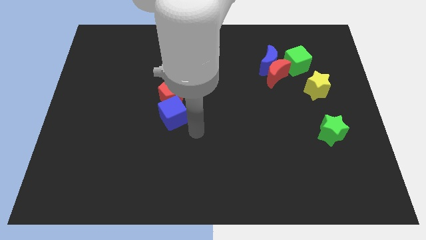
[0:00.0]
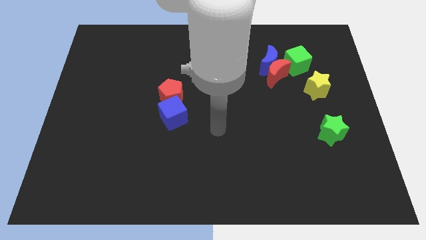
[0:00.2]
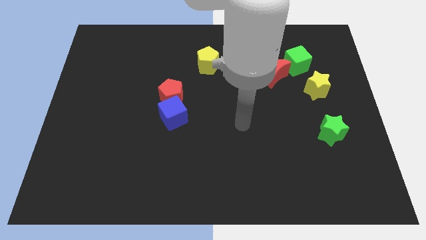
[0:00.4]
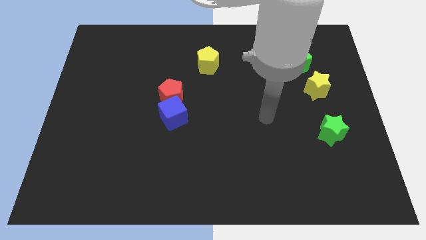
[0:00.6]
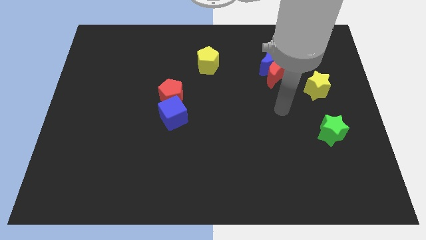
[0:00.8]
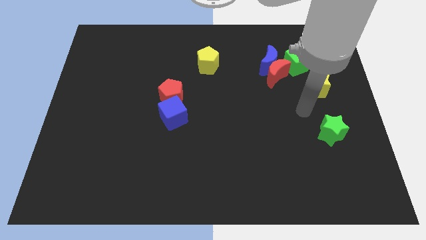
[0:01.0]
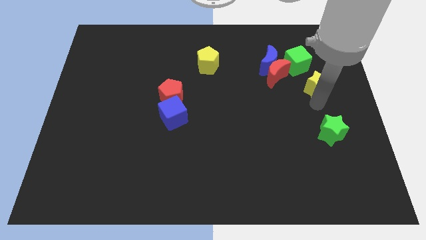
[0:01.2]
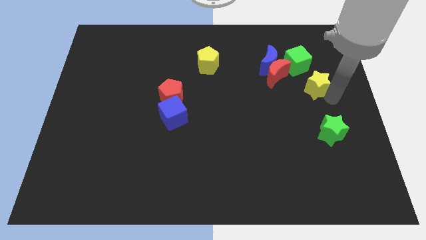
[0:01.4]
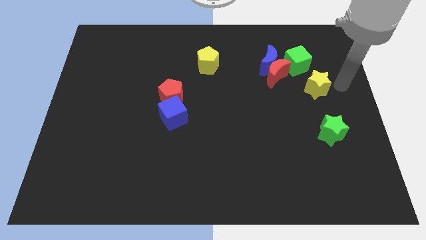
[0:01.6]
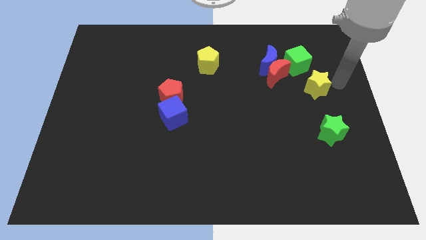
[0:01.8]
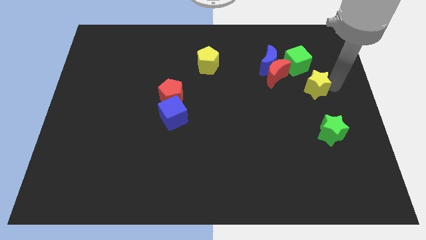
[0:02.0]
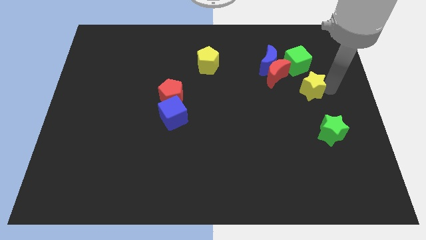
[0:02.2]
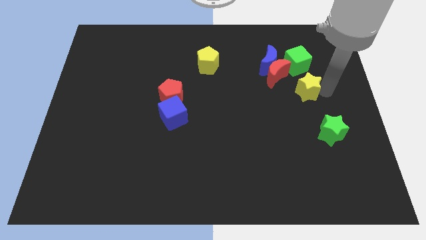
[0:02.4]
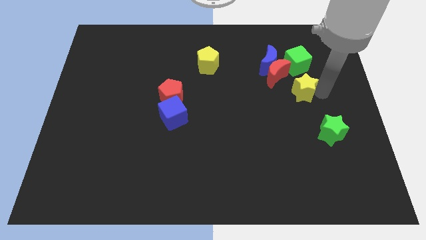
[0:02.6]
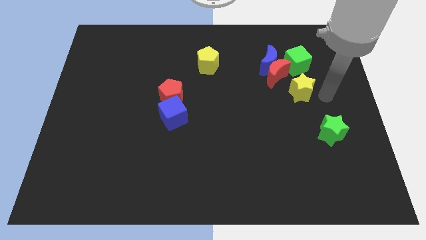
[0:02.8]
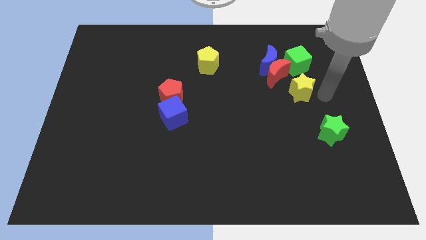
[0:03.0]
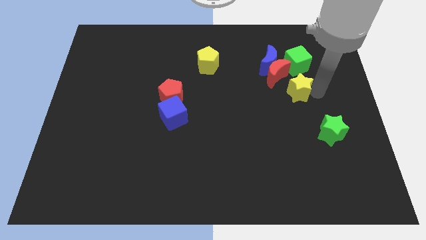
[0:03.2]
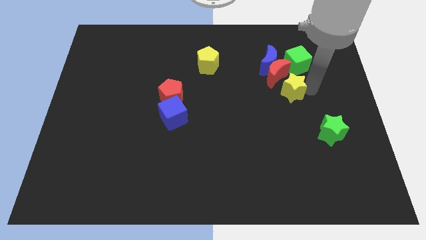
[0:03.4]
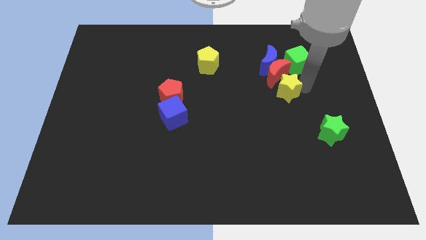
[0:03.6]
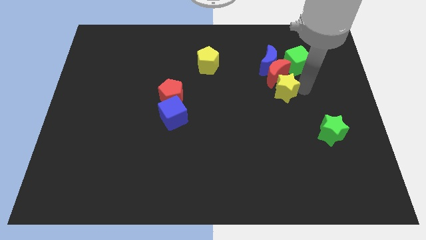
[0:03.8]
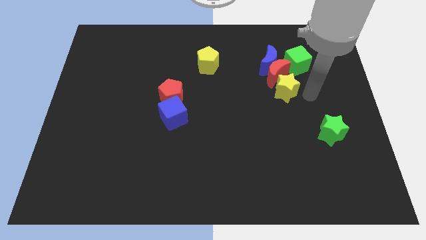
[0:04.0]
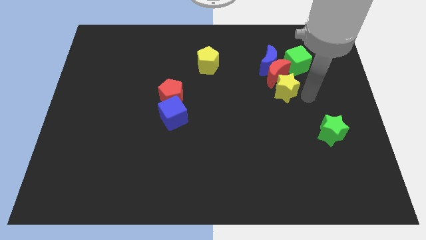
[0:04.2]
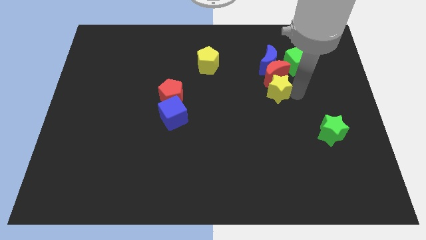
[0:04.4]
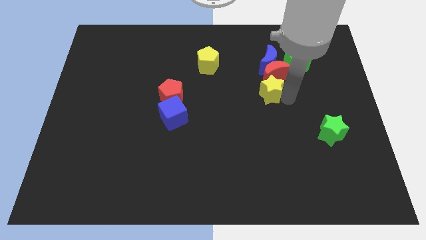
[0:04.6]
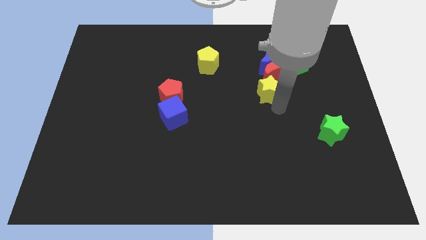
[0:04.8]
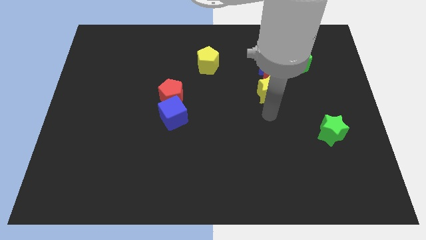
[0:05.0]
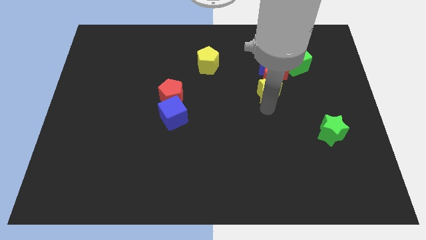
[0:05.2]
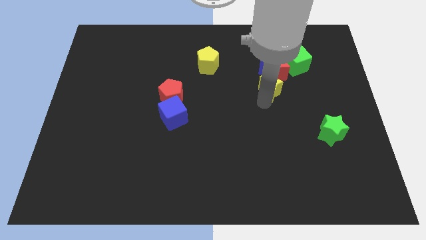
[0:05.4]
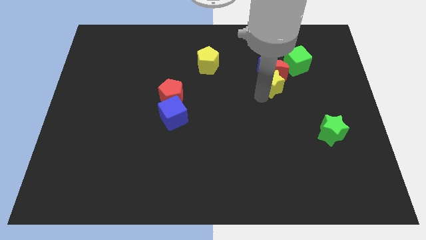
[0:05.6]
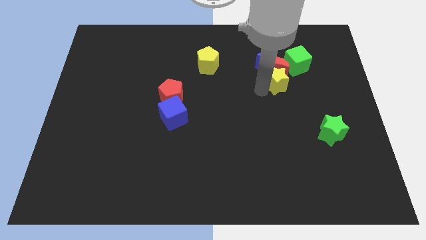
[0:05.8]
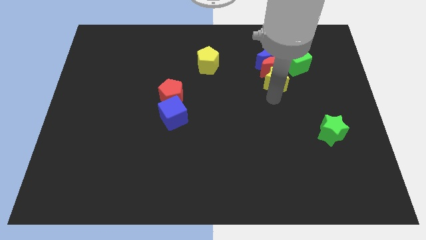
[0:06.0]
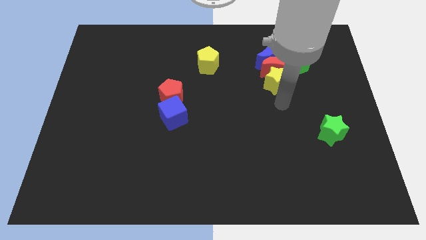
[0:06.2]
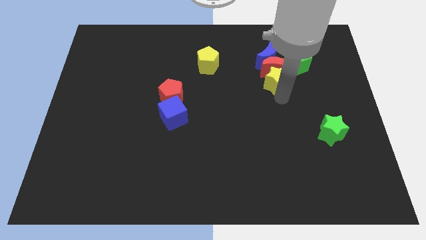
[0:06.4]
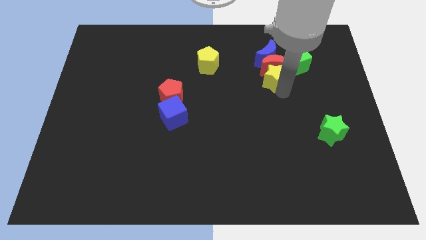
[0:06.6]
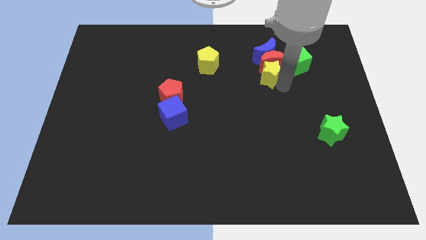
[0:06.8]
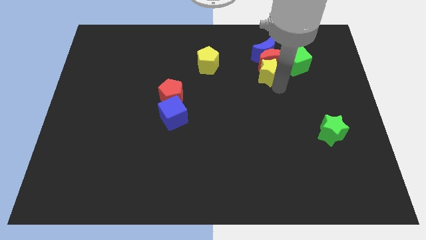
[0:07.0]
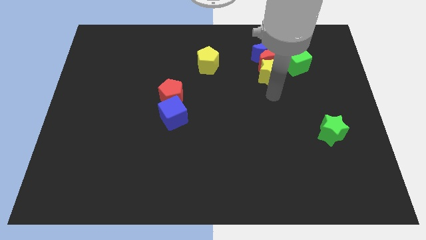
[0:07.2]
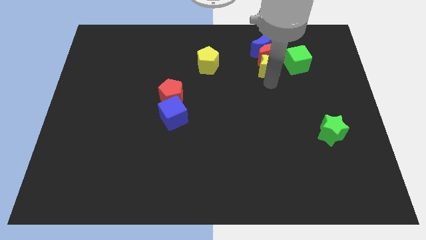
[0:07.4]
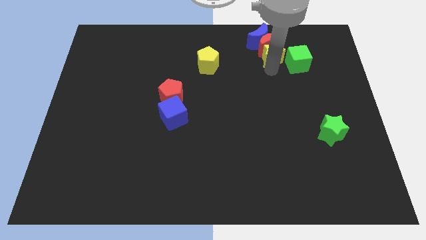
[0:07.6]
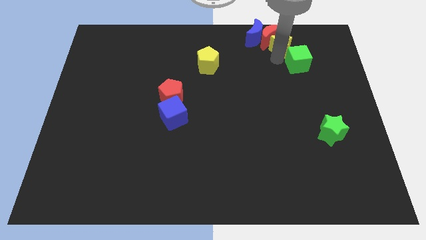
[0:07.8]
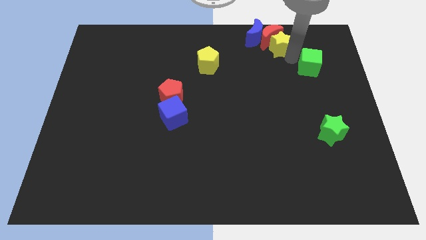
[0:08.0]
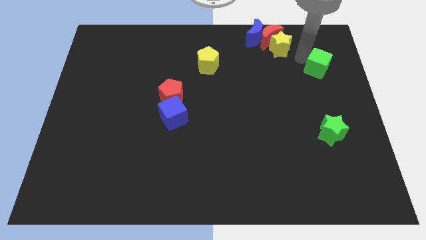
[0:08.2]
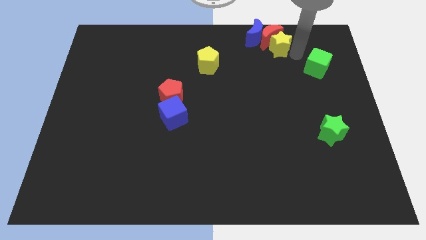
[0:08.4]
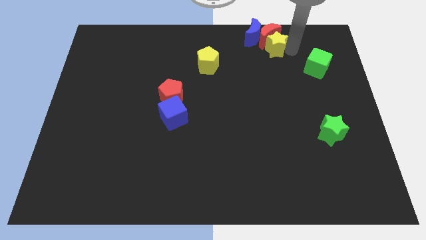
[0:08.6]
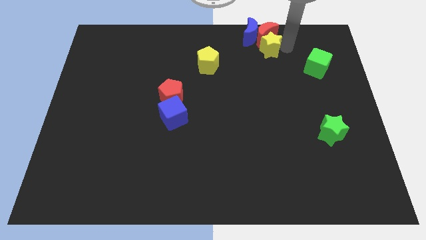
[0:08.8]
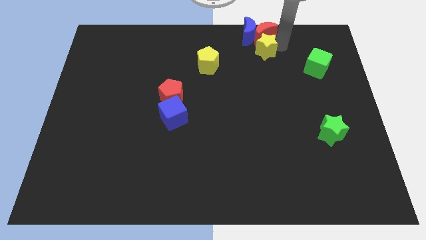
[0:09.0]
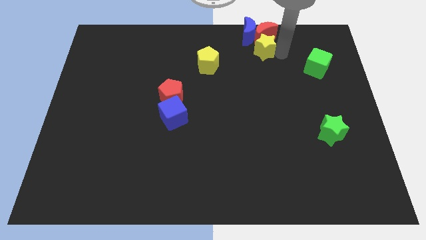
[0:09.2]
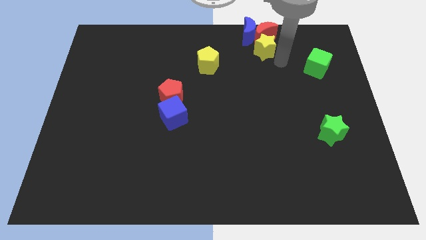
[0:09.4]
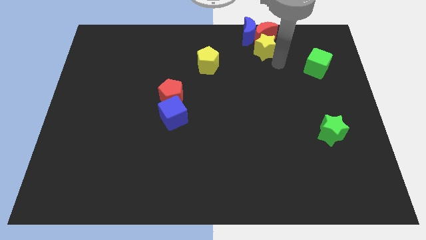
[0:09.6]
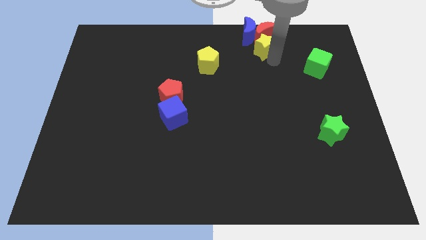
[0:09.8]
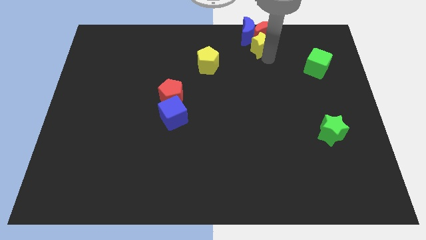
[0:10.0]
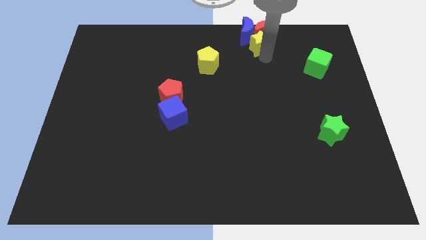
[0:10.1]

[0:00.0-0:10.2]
slide the yellow star next to the blue moon

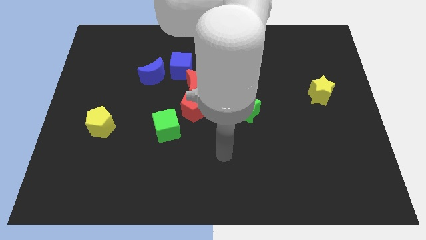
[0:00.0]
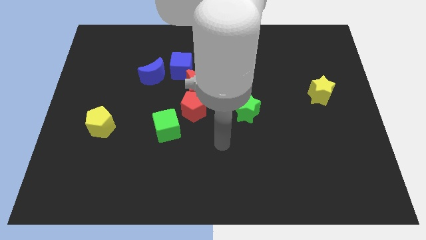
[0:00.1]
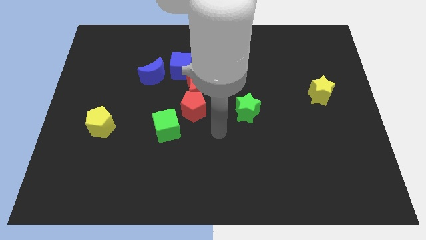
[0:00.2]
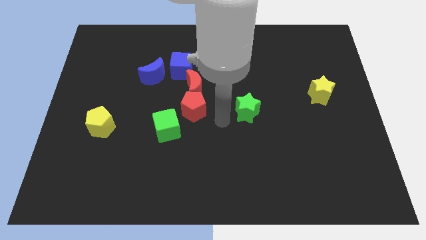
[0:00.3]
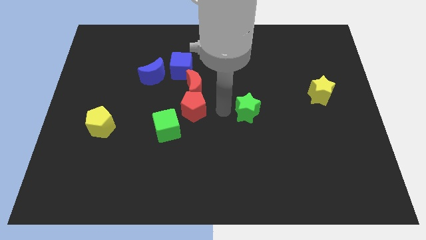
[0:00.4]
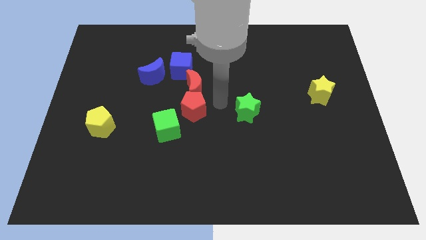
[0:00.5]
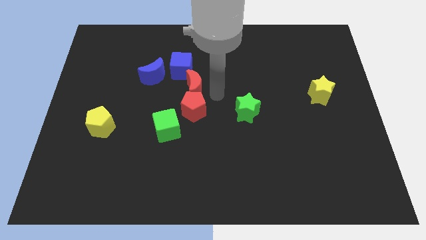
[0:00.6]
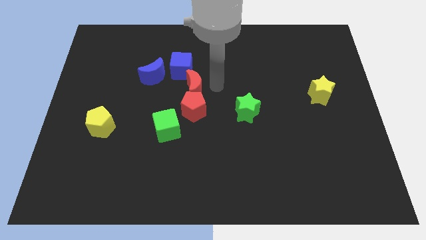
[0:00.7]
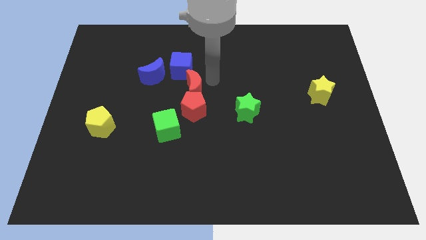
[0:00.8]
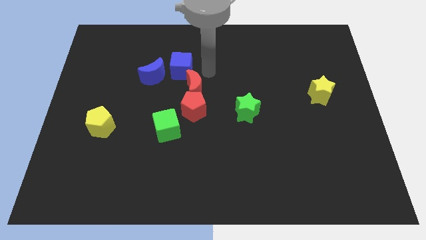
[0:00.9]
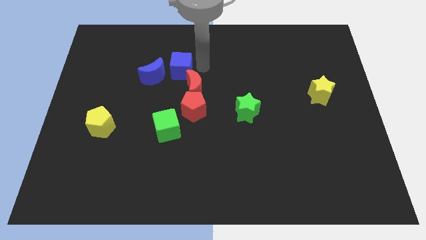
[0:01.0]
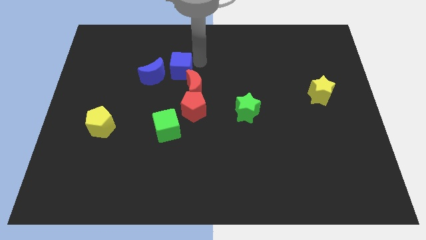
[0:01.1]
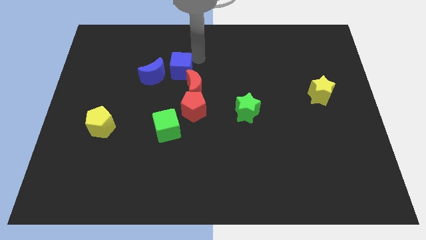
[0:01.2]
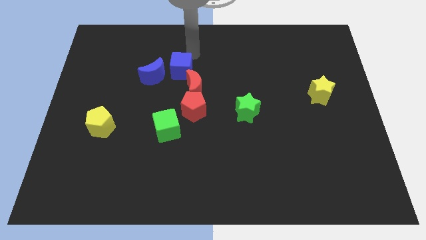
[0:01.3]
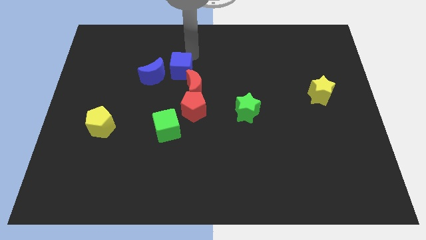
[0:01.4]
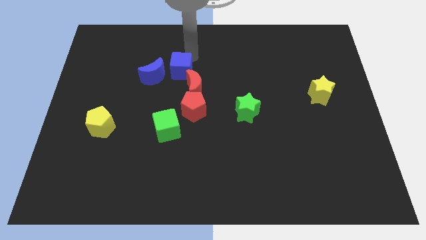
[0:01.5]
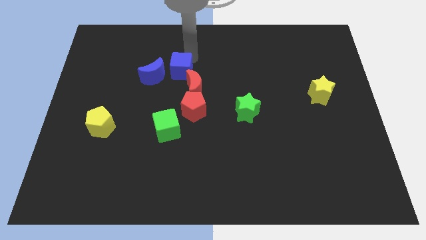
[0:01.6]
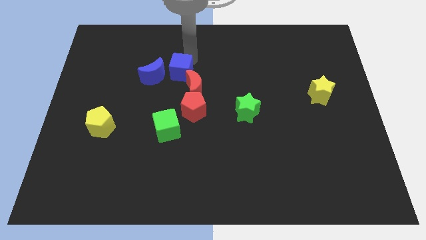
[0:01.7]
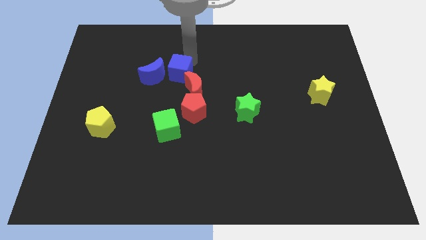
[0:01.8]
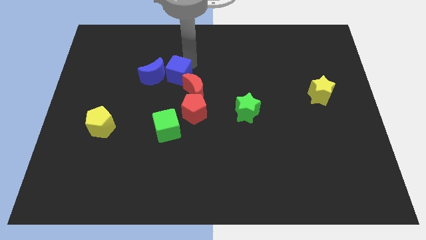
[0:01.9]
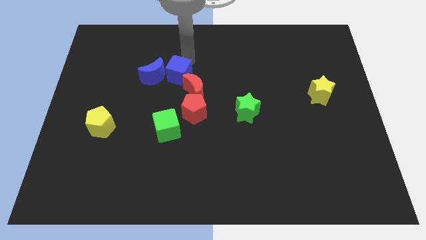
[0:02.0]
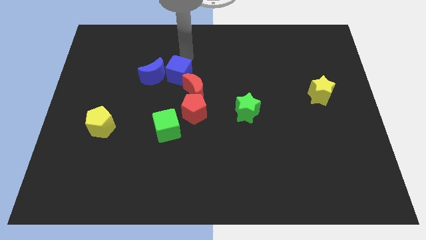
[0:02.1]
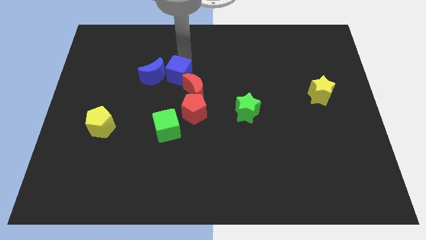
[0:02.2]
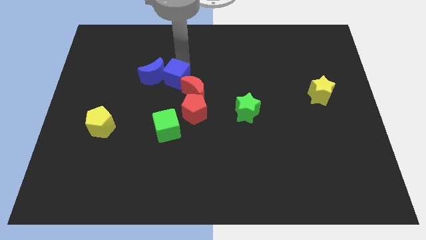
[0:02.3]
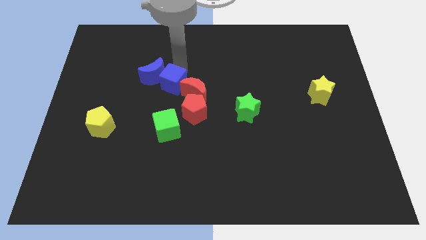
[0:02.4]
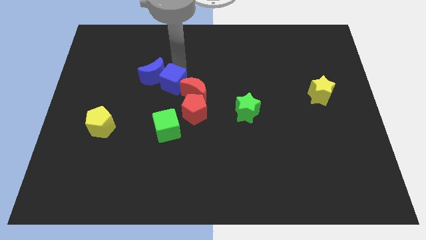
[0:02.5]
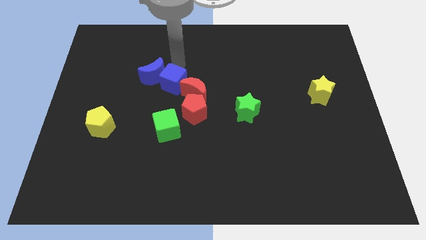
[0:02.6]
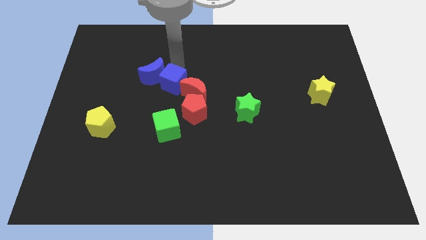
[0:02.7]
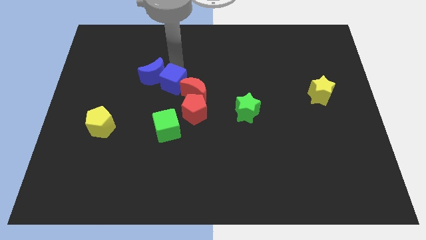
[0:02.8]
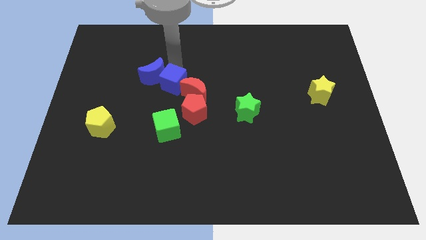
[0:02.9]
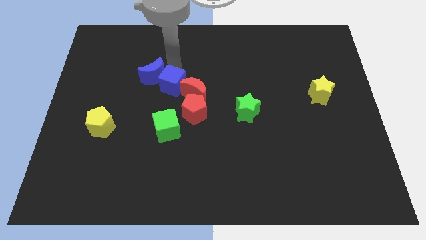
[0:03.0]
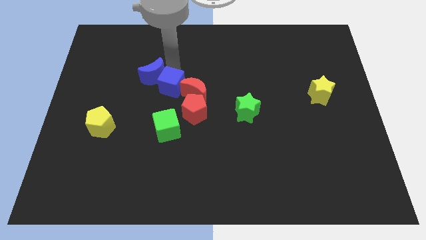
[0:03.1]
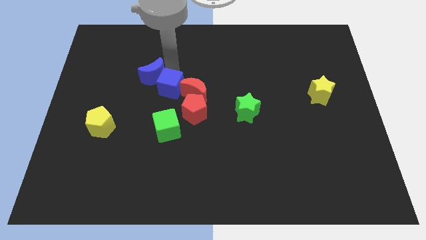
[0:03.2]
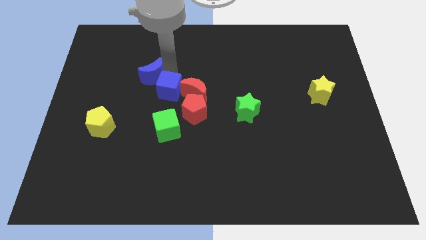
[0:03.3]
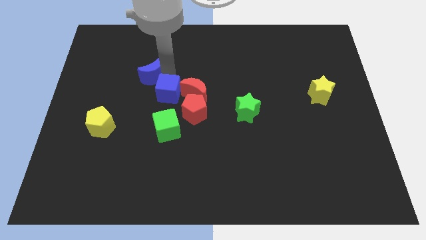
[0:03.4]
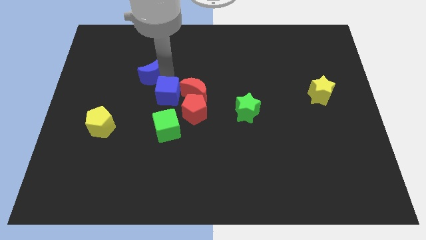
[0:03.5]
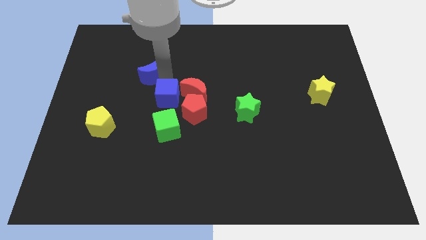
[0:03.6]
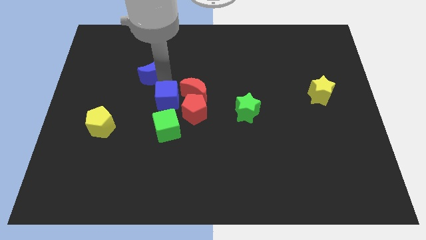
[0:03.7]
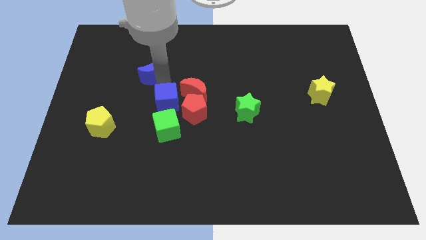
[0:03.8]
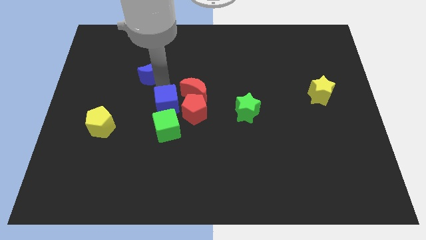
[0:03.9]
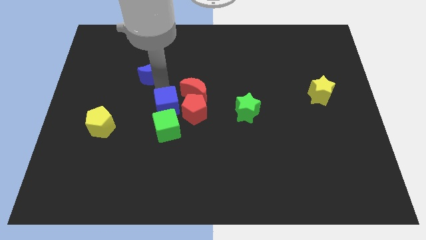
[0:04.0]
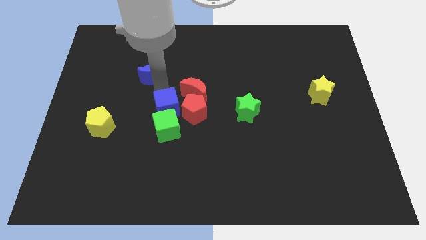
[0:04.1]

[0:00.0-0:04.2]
move the blue cube close to the green cube
